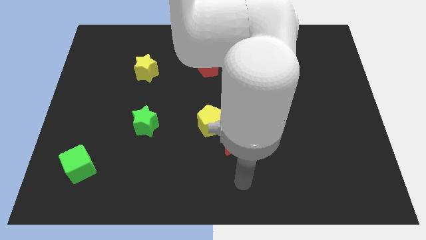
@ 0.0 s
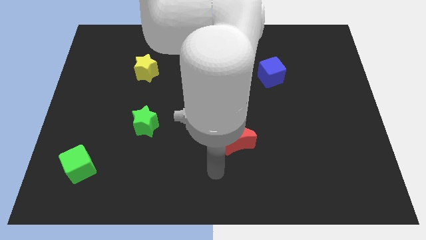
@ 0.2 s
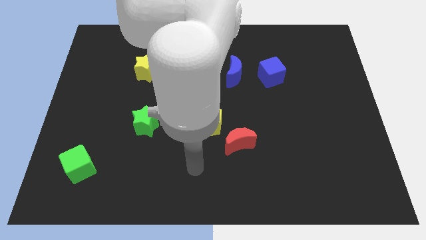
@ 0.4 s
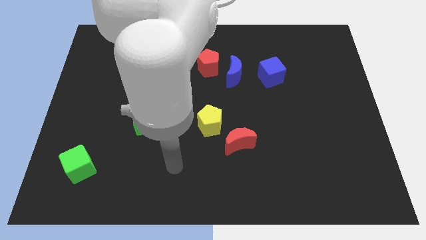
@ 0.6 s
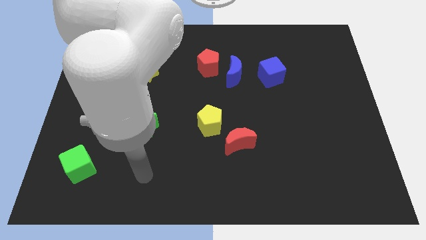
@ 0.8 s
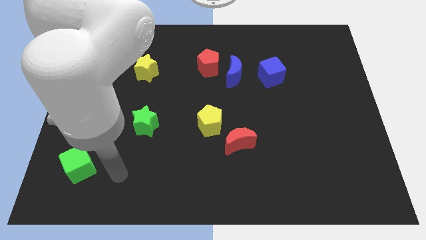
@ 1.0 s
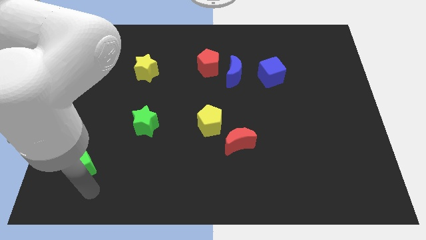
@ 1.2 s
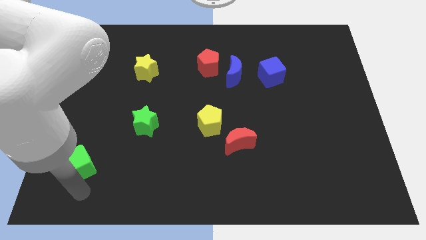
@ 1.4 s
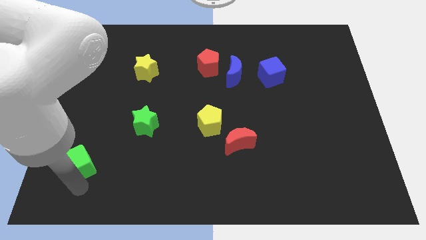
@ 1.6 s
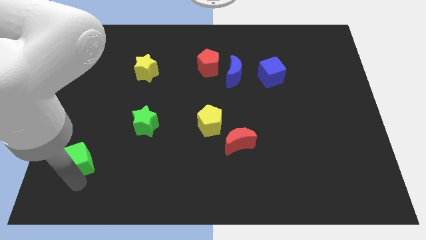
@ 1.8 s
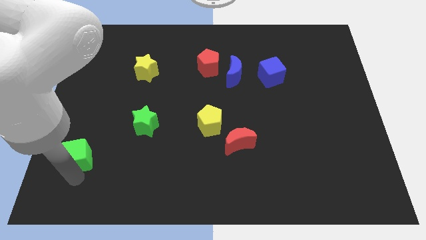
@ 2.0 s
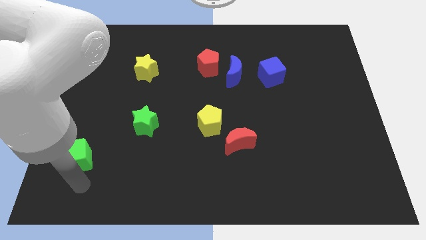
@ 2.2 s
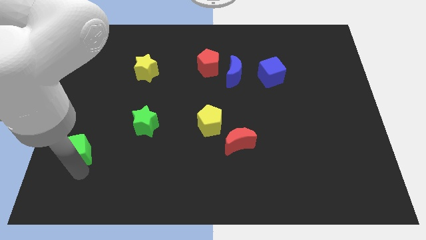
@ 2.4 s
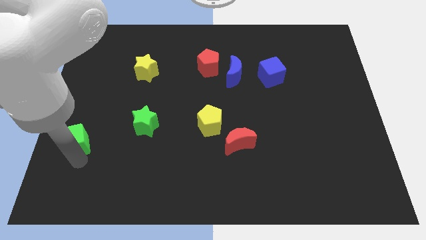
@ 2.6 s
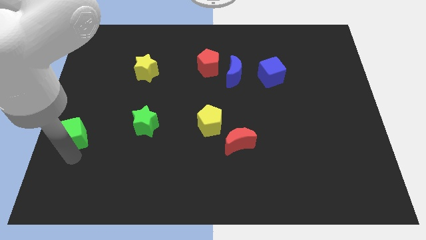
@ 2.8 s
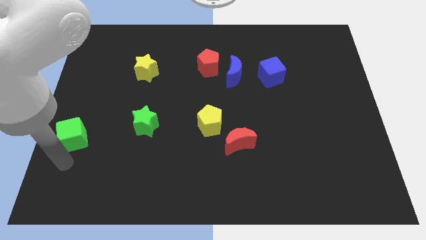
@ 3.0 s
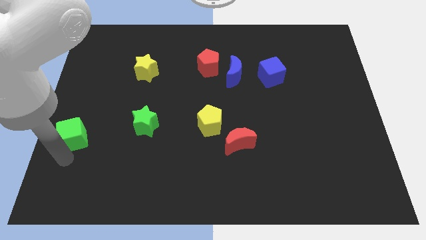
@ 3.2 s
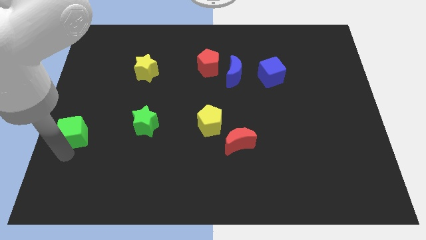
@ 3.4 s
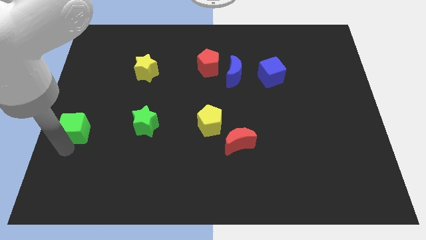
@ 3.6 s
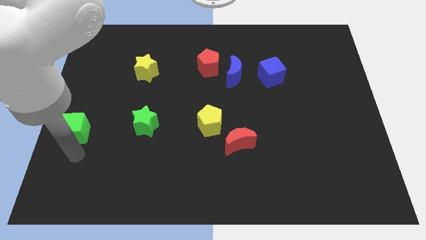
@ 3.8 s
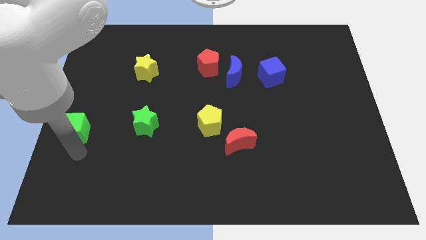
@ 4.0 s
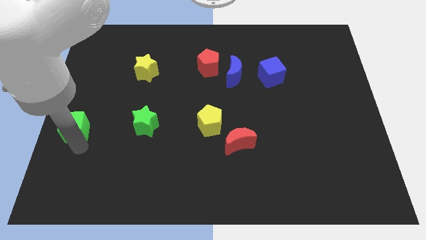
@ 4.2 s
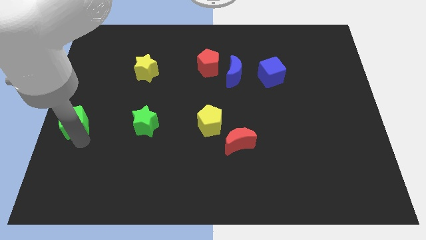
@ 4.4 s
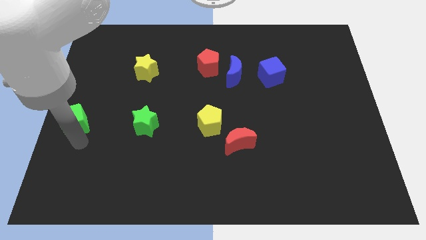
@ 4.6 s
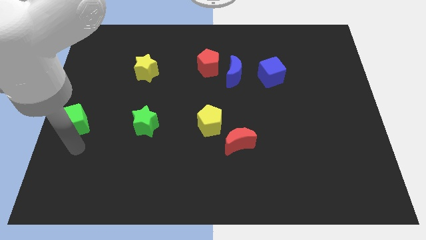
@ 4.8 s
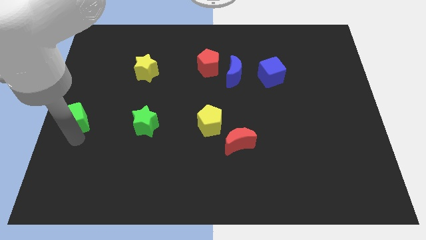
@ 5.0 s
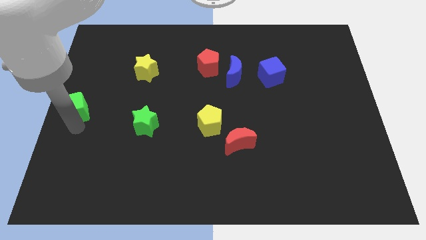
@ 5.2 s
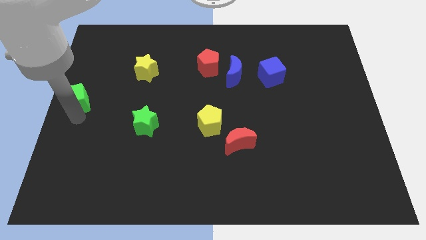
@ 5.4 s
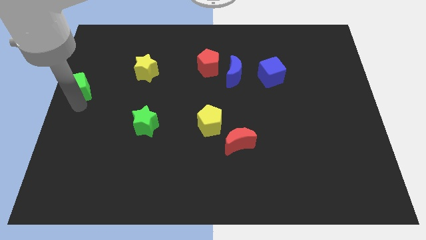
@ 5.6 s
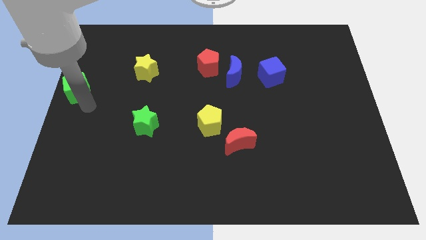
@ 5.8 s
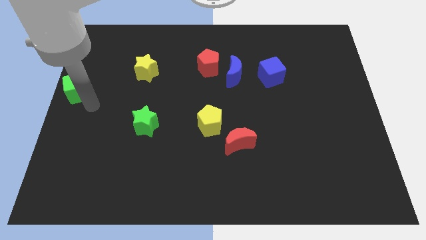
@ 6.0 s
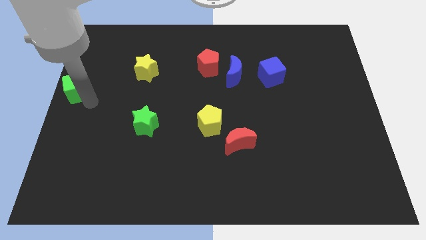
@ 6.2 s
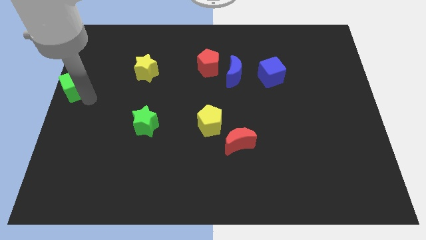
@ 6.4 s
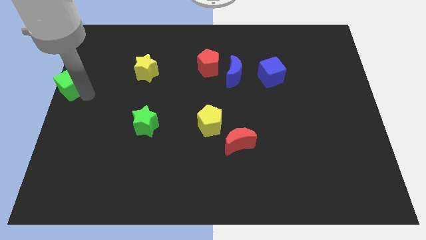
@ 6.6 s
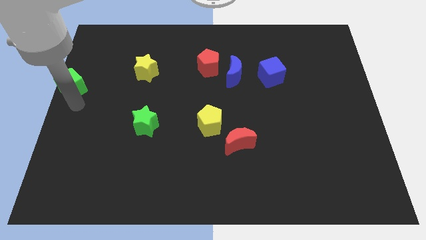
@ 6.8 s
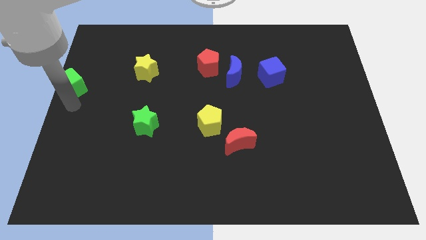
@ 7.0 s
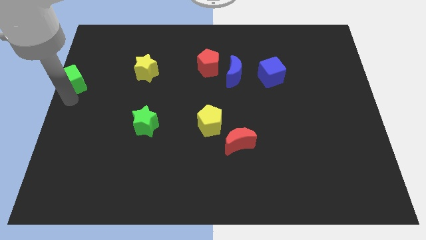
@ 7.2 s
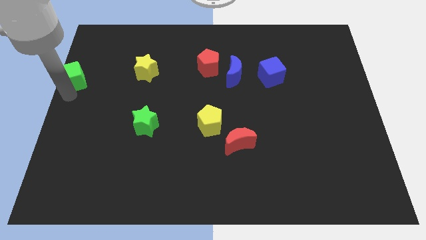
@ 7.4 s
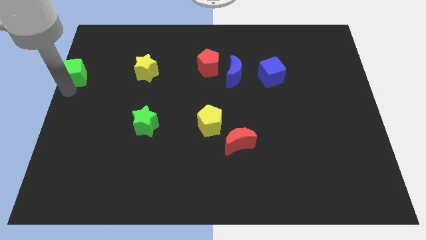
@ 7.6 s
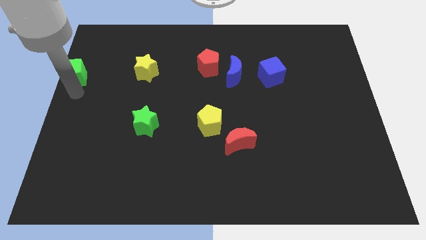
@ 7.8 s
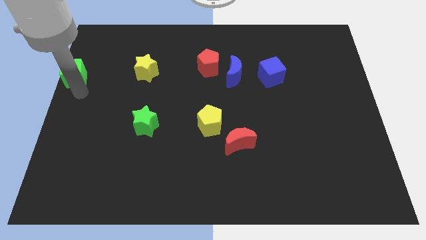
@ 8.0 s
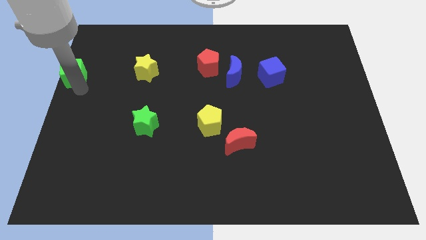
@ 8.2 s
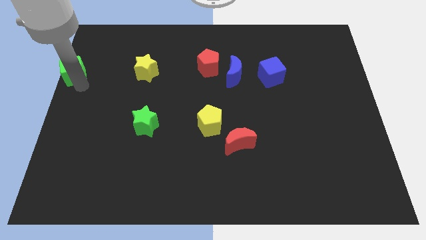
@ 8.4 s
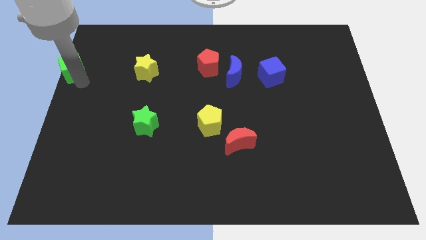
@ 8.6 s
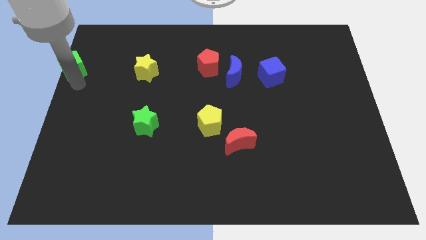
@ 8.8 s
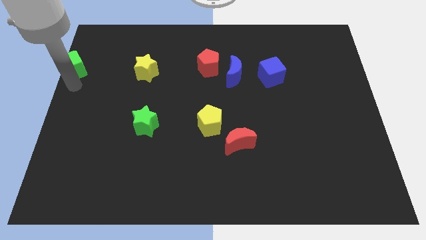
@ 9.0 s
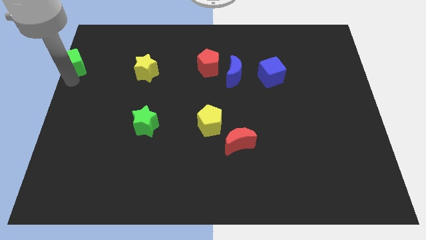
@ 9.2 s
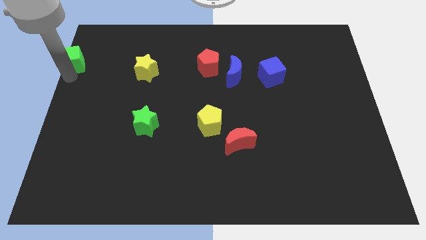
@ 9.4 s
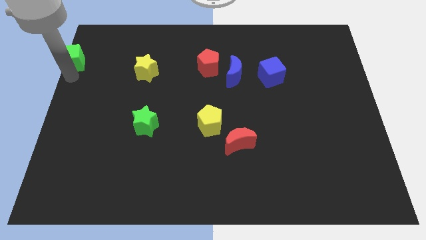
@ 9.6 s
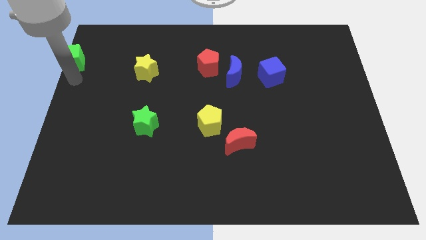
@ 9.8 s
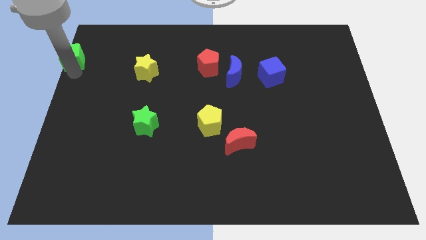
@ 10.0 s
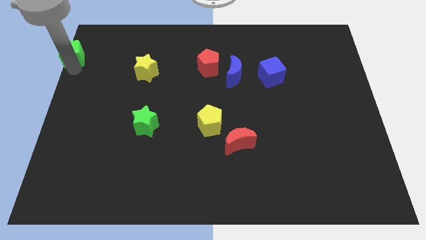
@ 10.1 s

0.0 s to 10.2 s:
put the green cube to the top left

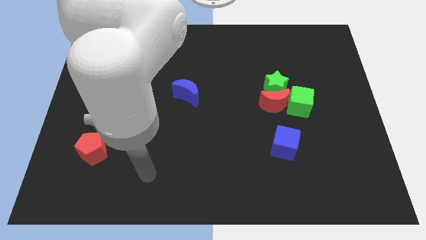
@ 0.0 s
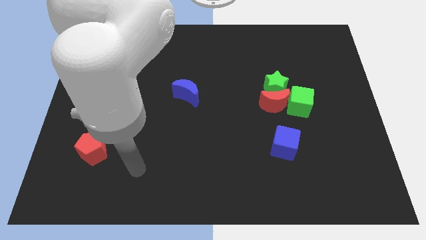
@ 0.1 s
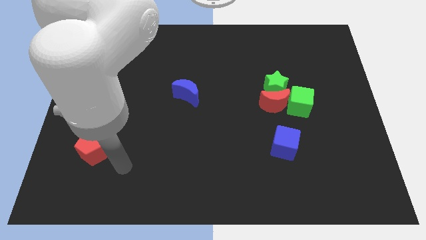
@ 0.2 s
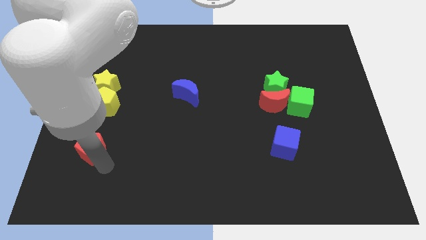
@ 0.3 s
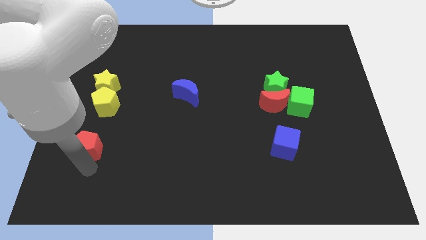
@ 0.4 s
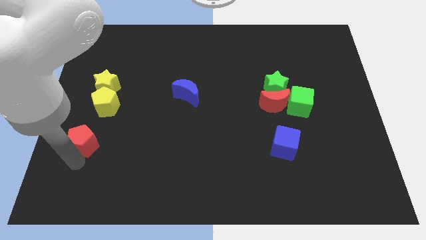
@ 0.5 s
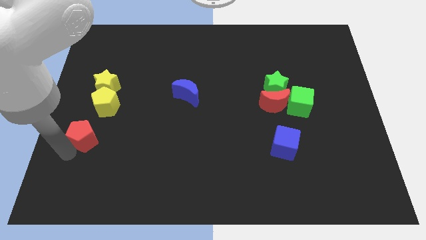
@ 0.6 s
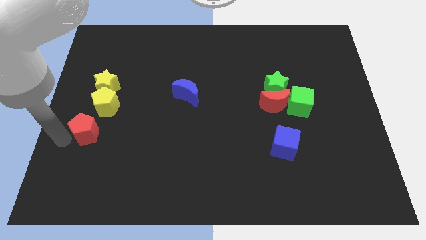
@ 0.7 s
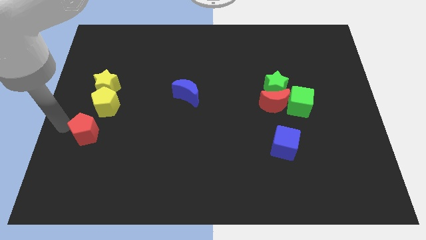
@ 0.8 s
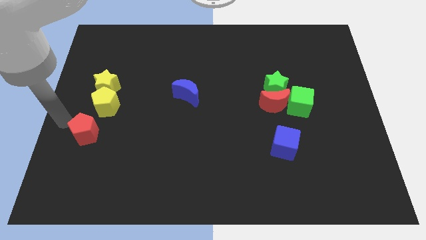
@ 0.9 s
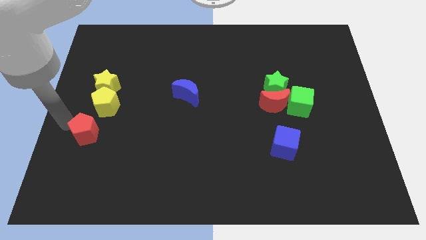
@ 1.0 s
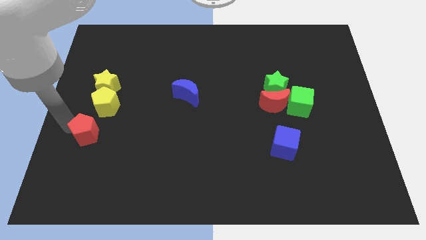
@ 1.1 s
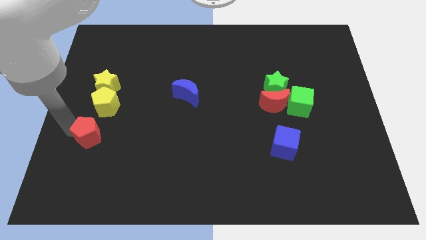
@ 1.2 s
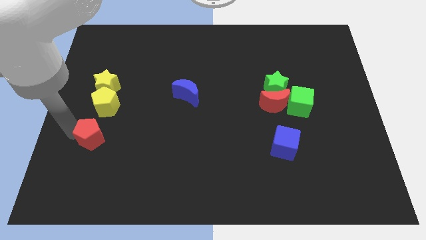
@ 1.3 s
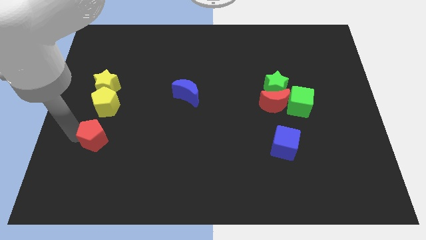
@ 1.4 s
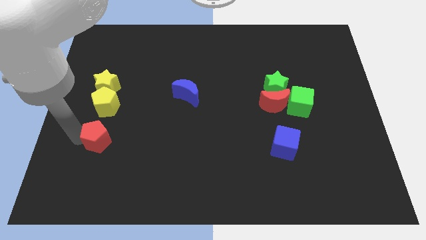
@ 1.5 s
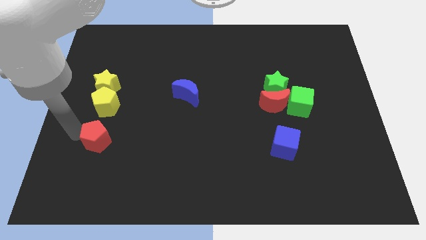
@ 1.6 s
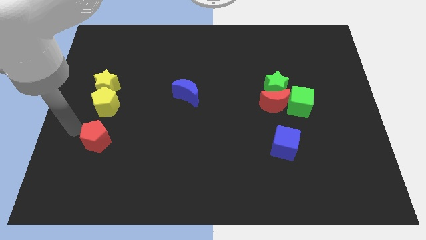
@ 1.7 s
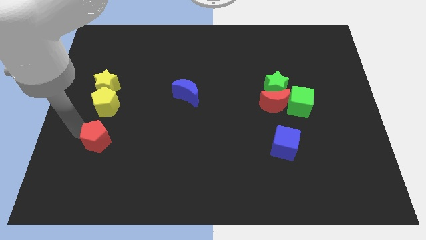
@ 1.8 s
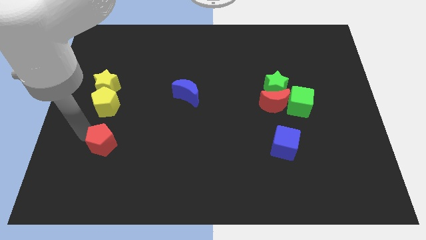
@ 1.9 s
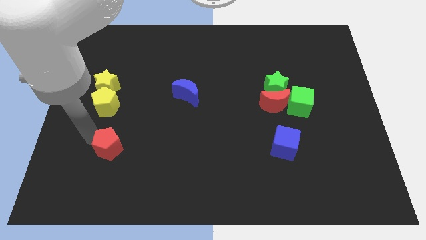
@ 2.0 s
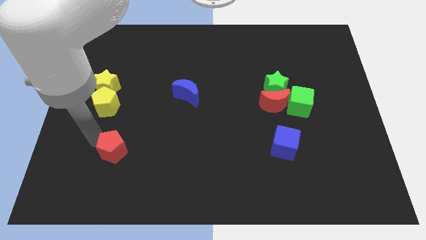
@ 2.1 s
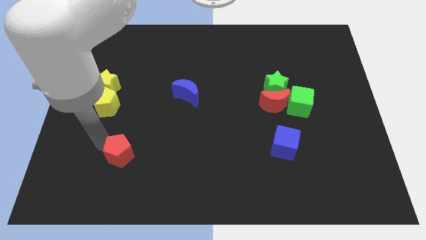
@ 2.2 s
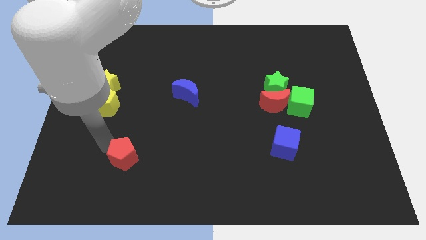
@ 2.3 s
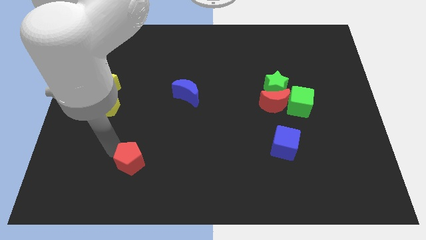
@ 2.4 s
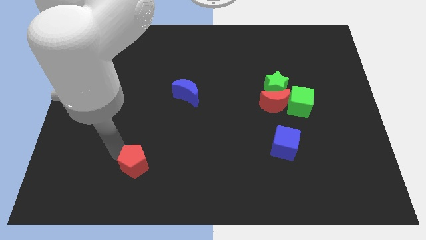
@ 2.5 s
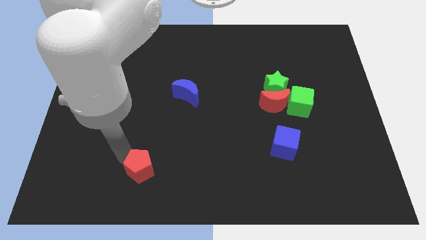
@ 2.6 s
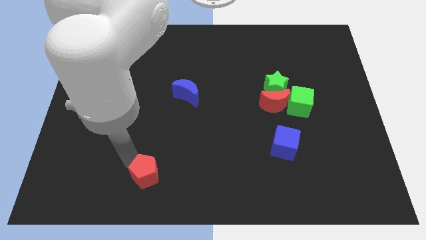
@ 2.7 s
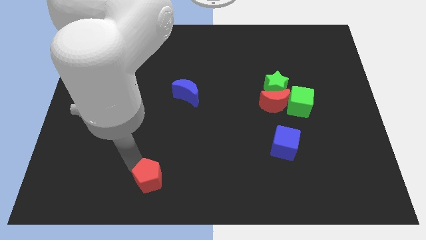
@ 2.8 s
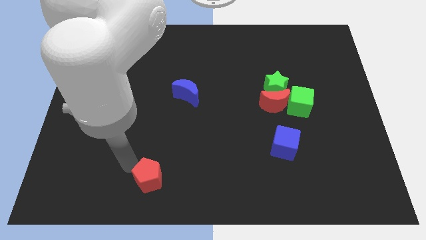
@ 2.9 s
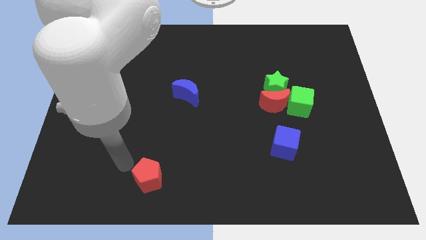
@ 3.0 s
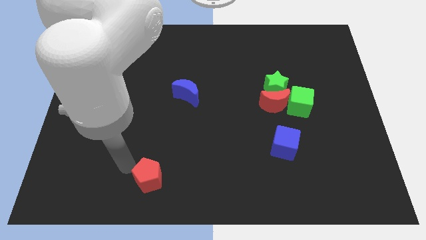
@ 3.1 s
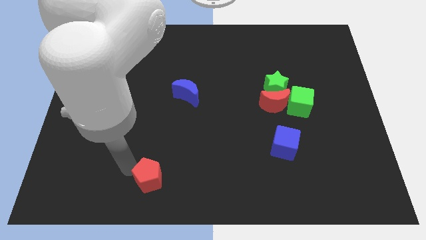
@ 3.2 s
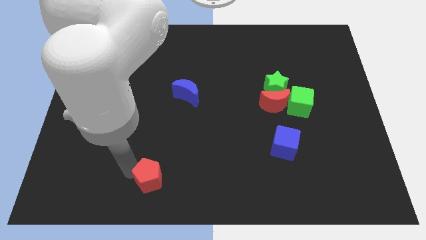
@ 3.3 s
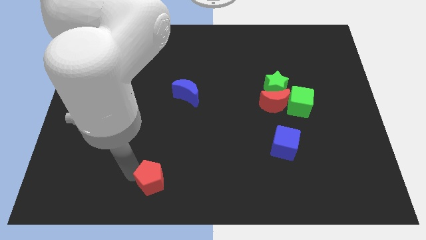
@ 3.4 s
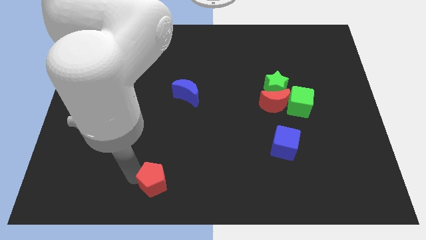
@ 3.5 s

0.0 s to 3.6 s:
move the red pentagon to the bottom
